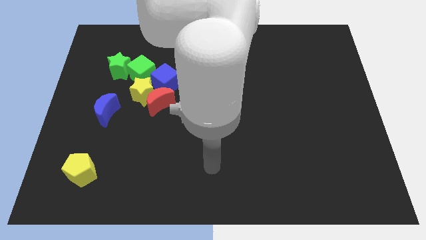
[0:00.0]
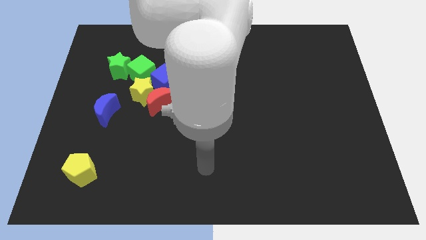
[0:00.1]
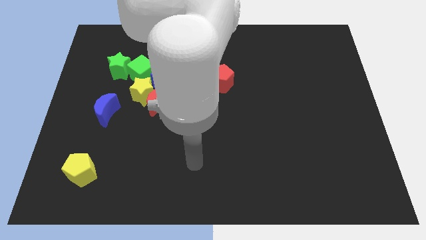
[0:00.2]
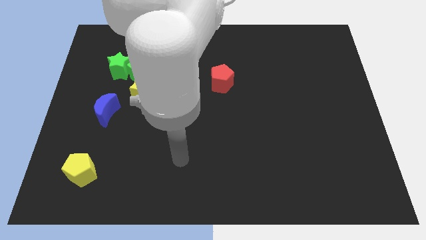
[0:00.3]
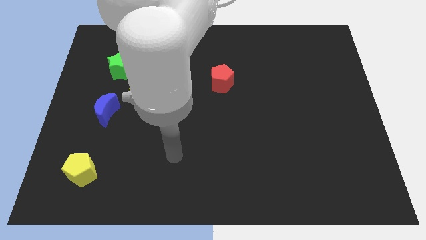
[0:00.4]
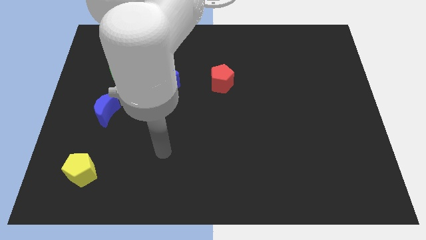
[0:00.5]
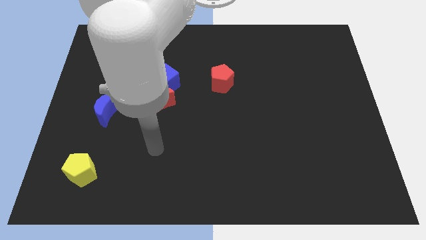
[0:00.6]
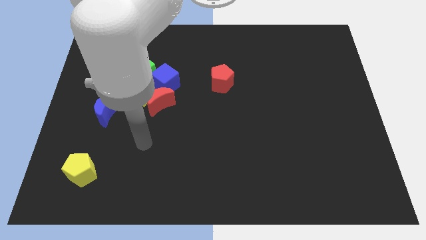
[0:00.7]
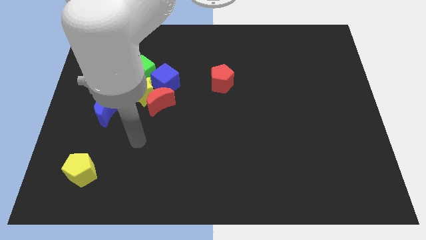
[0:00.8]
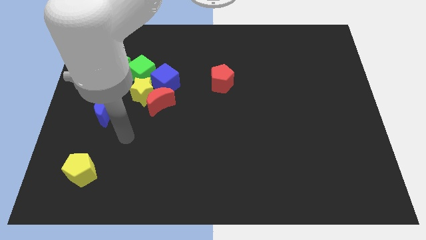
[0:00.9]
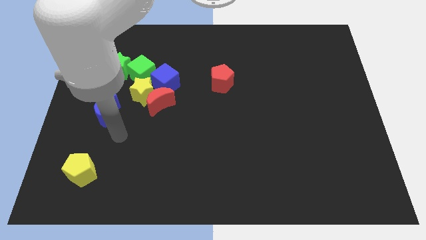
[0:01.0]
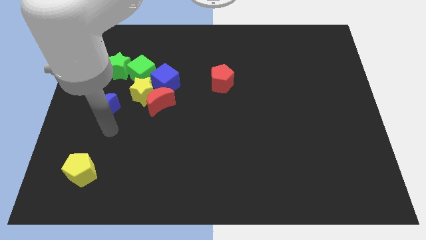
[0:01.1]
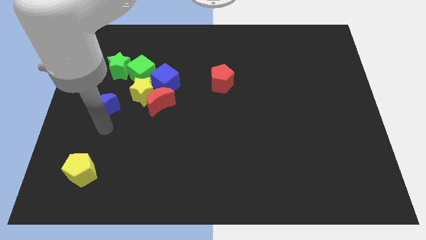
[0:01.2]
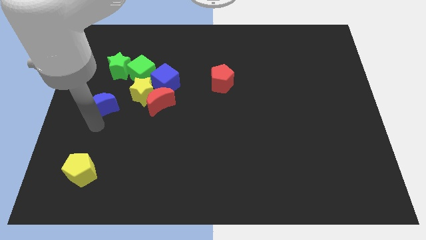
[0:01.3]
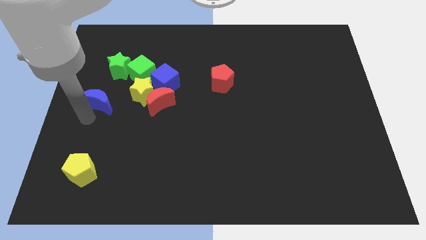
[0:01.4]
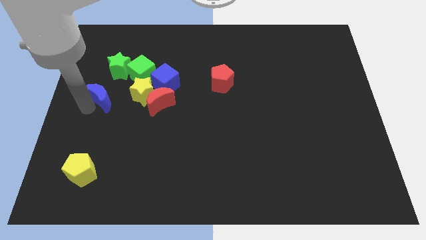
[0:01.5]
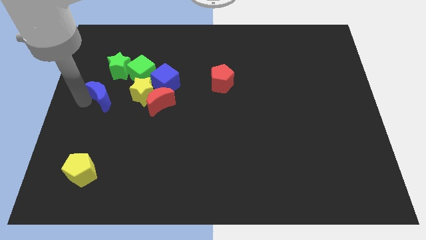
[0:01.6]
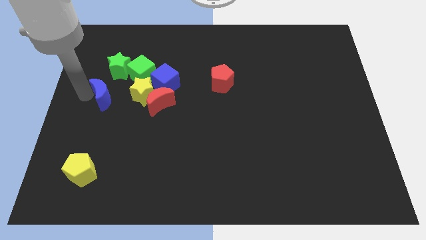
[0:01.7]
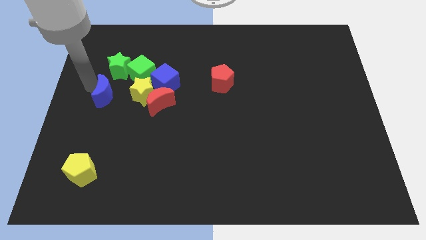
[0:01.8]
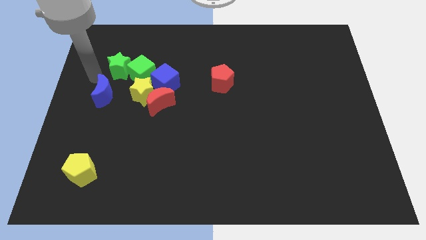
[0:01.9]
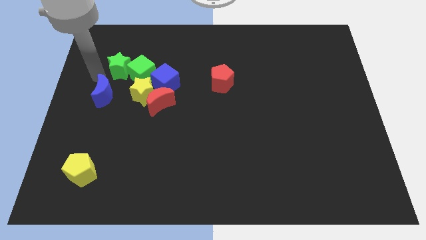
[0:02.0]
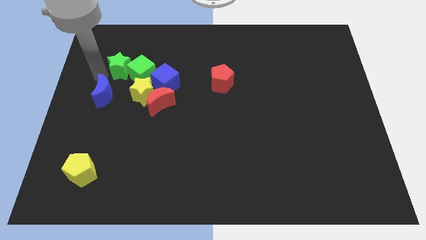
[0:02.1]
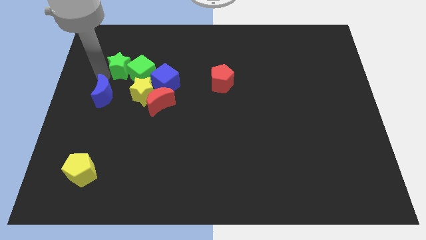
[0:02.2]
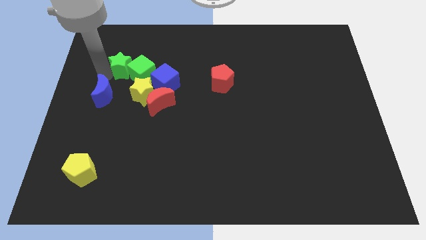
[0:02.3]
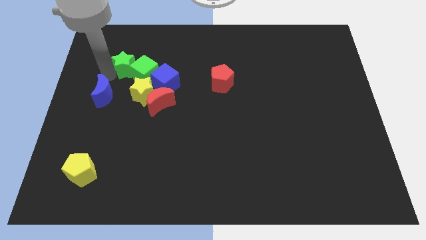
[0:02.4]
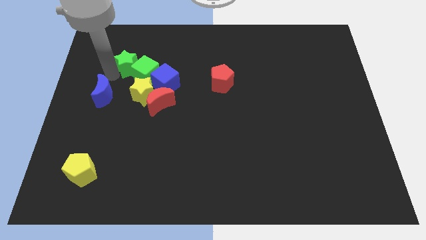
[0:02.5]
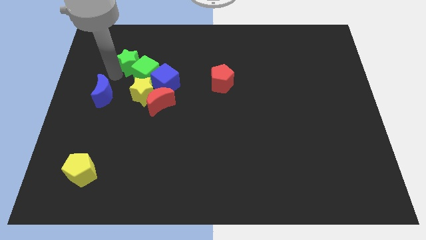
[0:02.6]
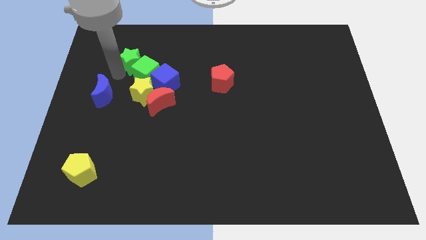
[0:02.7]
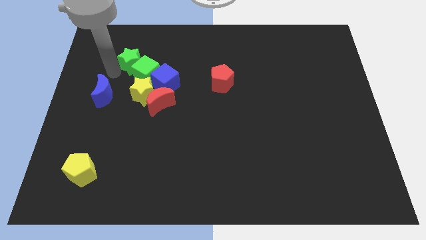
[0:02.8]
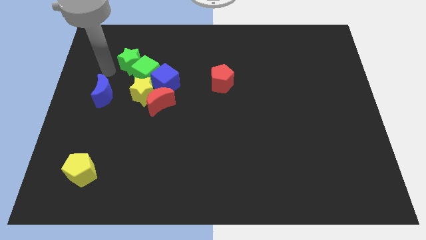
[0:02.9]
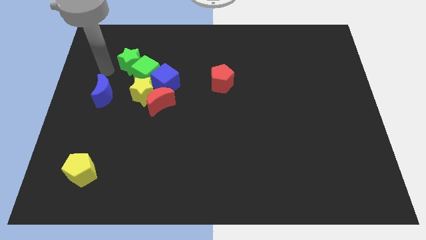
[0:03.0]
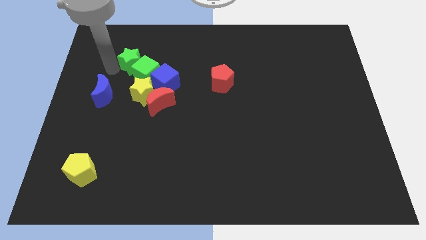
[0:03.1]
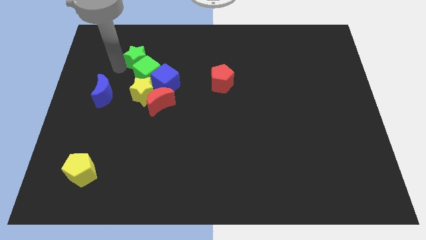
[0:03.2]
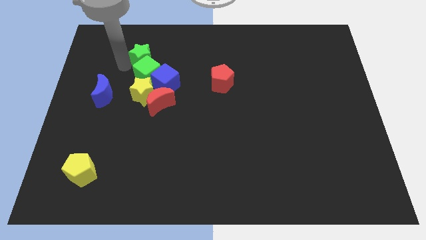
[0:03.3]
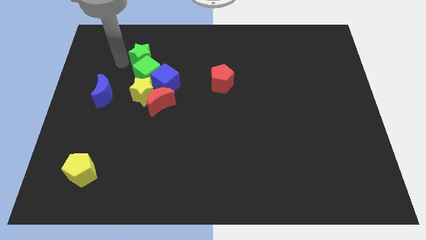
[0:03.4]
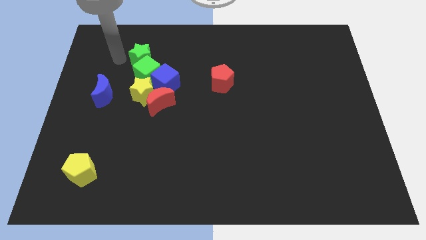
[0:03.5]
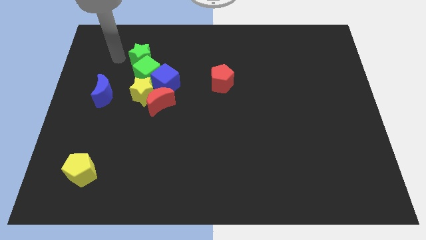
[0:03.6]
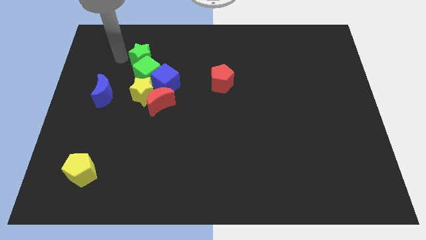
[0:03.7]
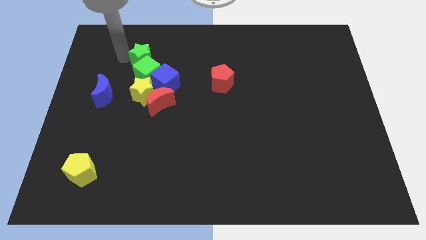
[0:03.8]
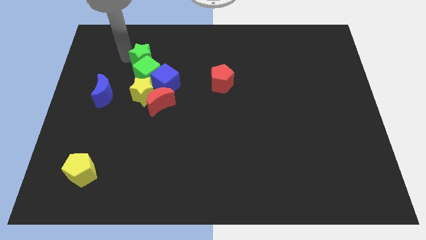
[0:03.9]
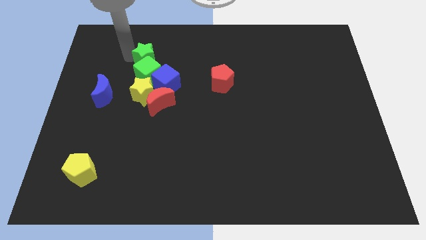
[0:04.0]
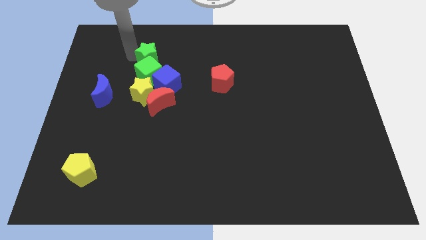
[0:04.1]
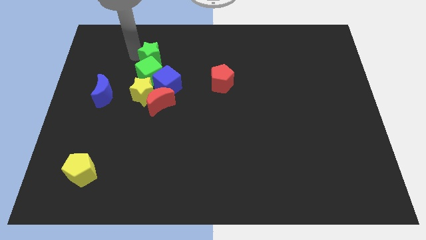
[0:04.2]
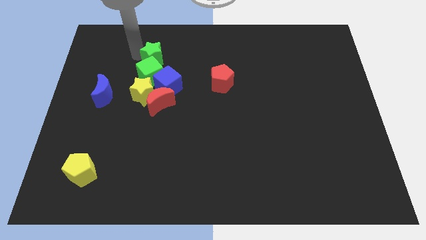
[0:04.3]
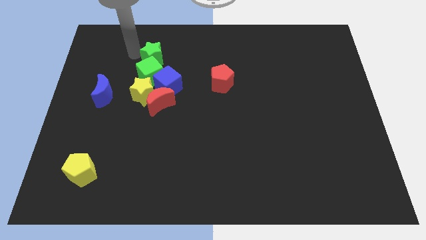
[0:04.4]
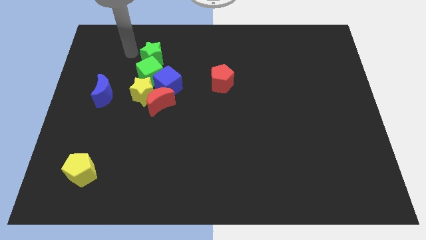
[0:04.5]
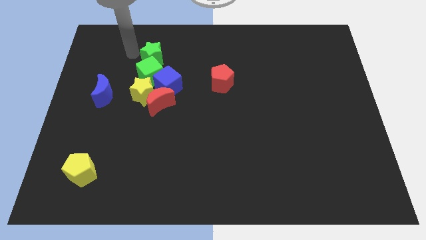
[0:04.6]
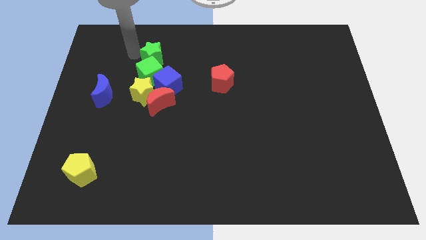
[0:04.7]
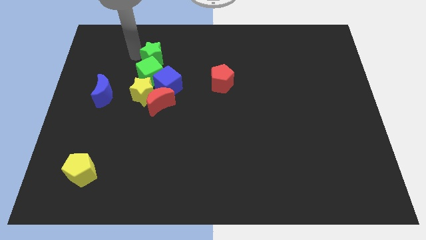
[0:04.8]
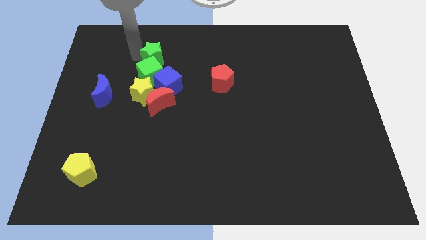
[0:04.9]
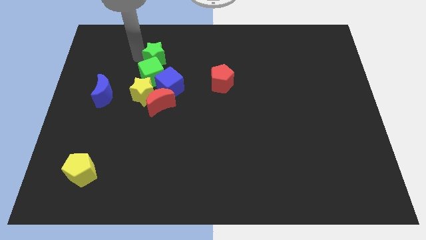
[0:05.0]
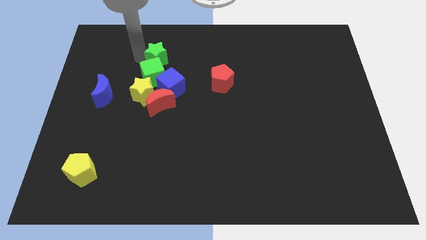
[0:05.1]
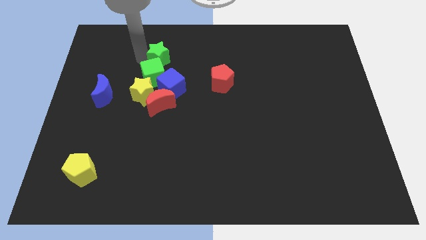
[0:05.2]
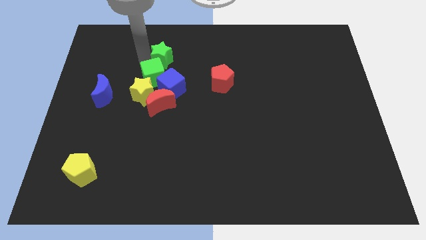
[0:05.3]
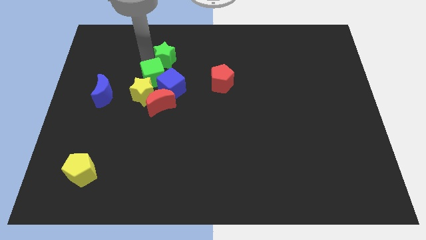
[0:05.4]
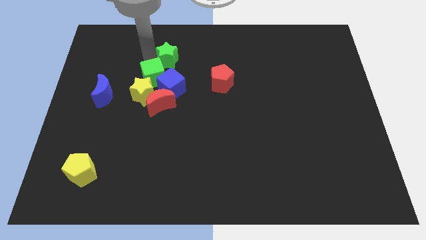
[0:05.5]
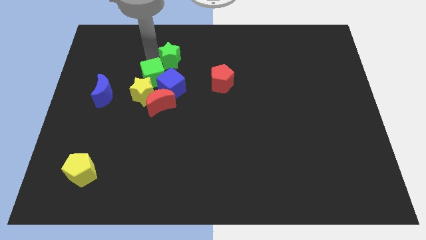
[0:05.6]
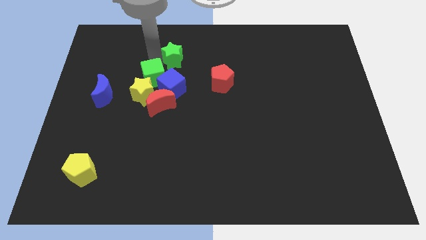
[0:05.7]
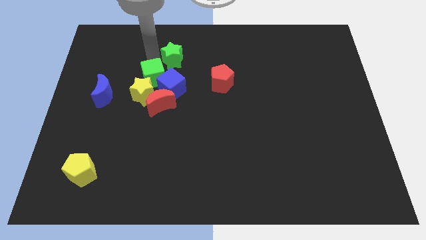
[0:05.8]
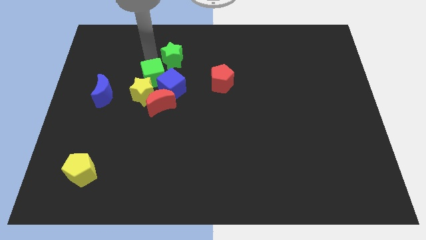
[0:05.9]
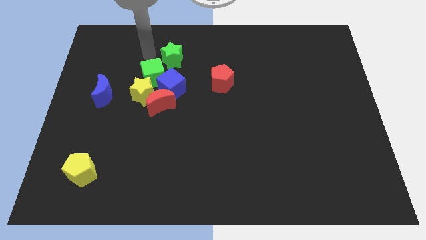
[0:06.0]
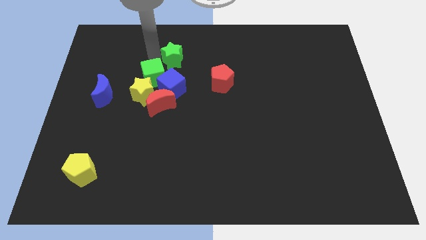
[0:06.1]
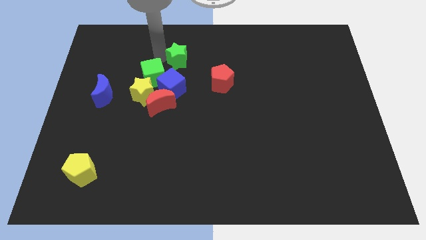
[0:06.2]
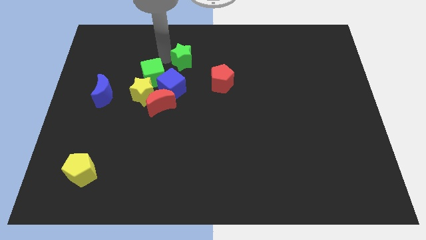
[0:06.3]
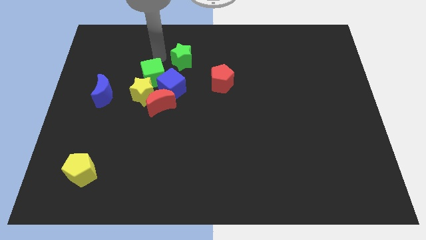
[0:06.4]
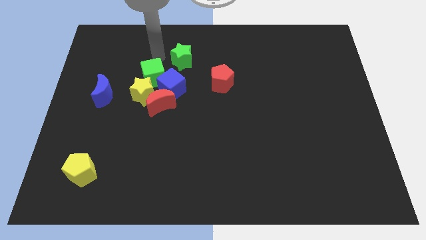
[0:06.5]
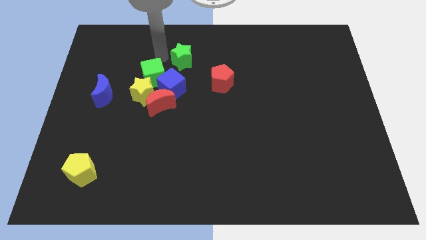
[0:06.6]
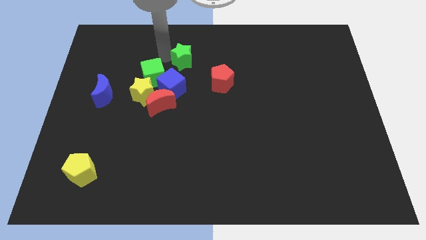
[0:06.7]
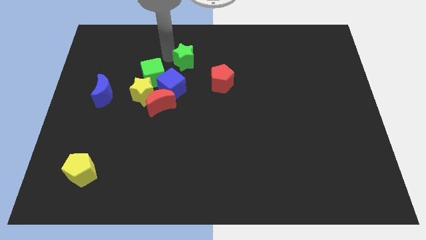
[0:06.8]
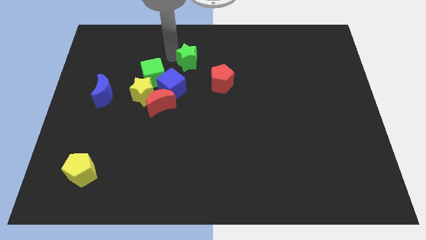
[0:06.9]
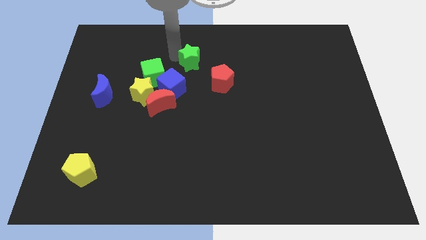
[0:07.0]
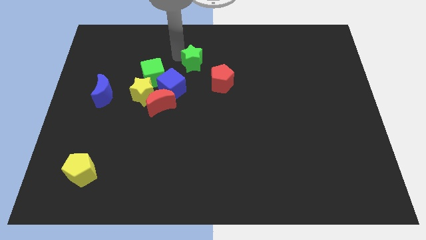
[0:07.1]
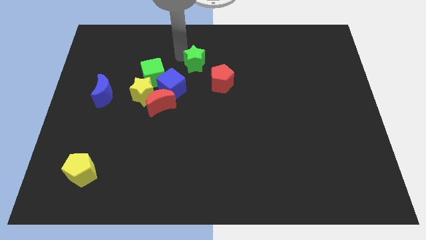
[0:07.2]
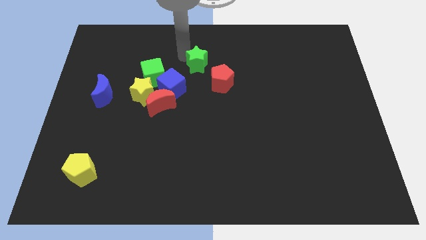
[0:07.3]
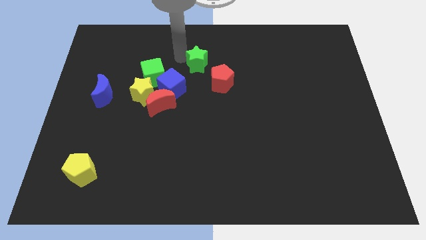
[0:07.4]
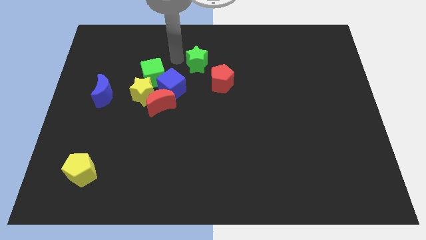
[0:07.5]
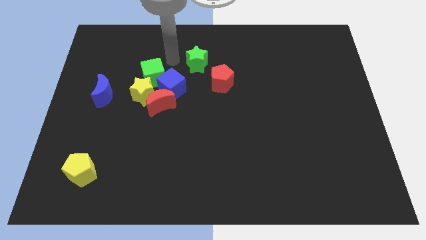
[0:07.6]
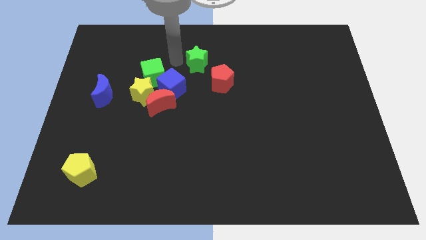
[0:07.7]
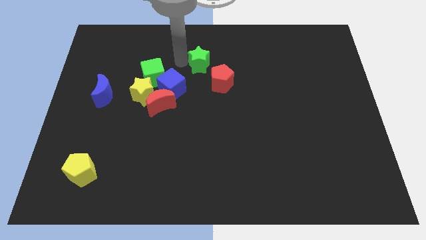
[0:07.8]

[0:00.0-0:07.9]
move the green star to the right
